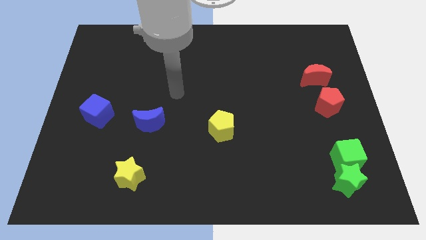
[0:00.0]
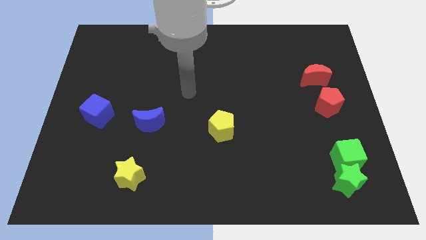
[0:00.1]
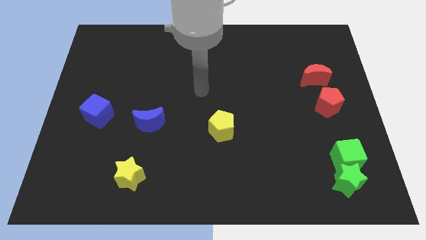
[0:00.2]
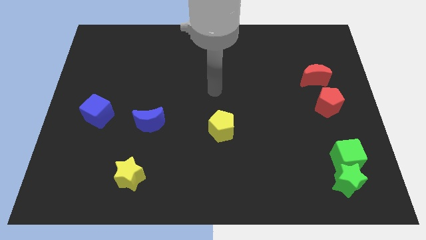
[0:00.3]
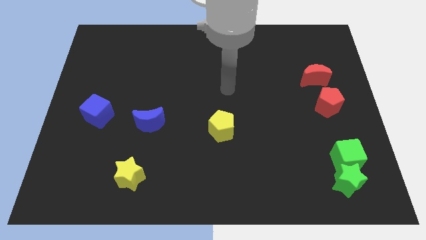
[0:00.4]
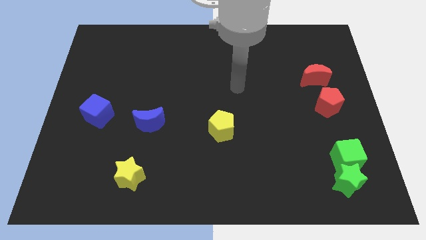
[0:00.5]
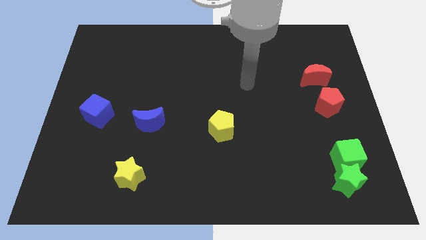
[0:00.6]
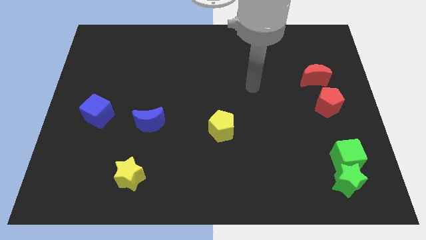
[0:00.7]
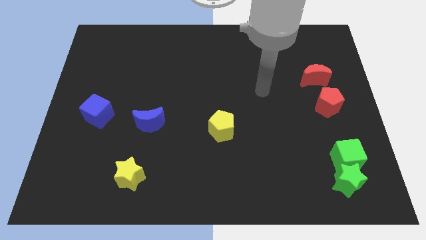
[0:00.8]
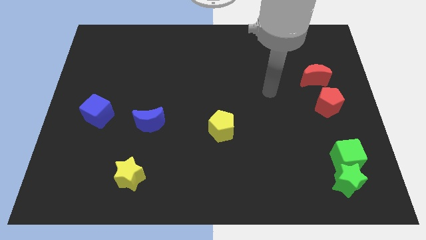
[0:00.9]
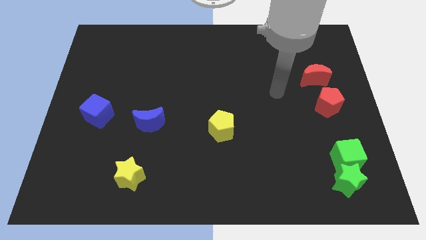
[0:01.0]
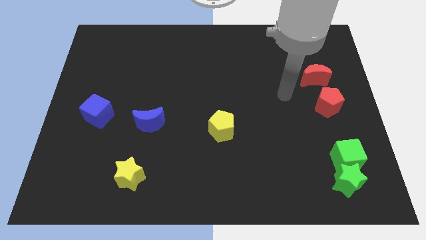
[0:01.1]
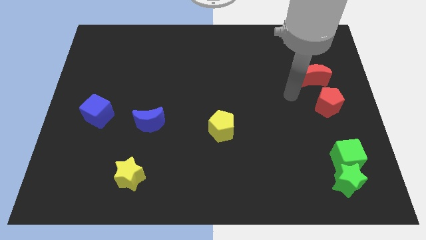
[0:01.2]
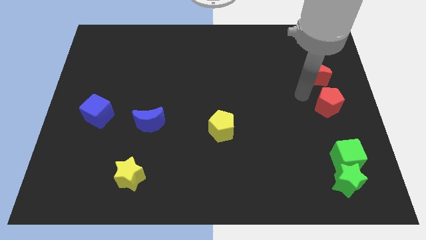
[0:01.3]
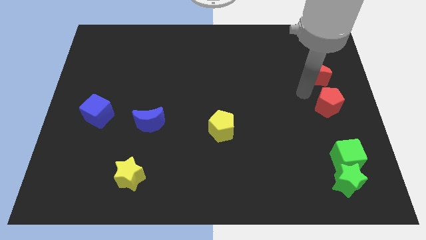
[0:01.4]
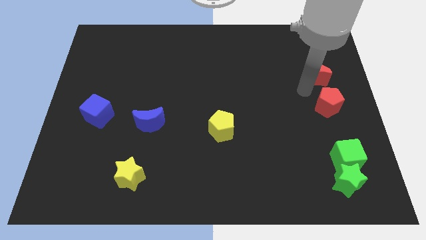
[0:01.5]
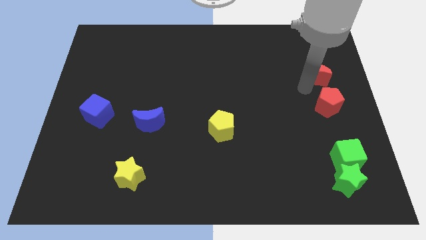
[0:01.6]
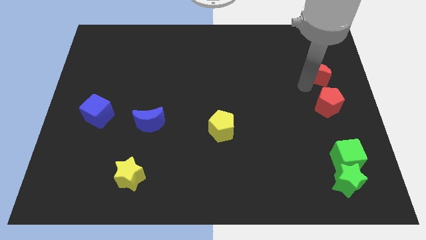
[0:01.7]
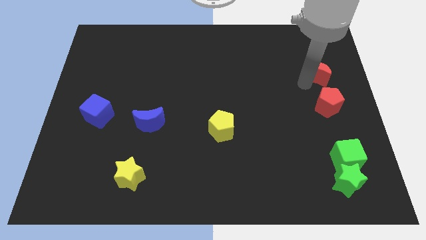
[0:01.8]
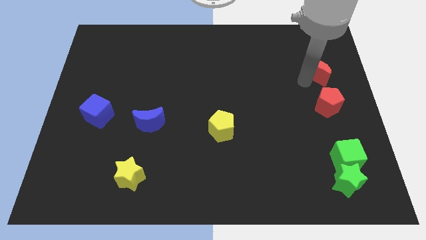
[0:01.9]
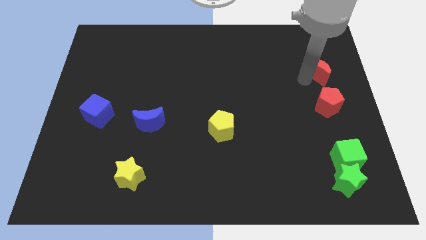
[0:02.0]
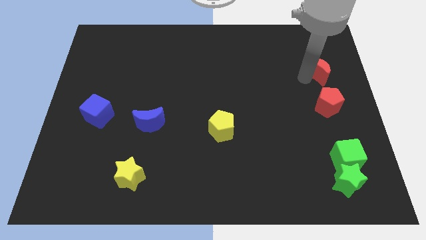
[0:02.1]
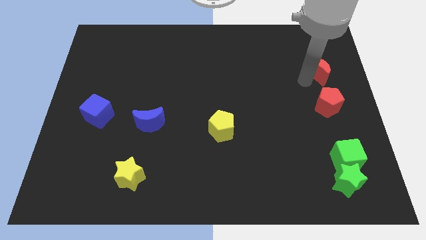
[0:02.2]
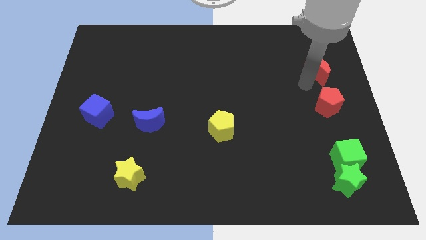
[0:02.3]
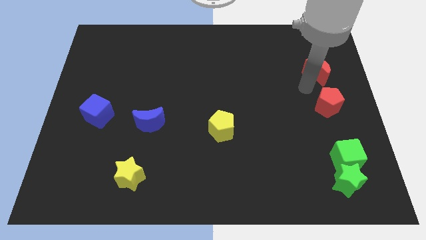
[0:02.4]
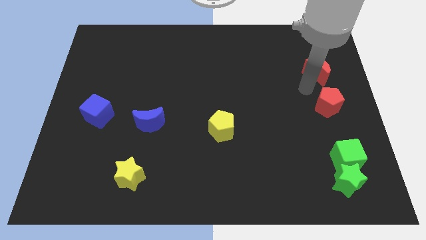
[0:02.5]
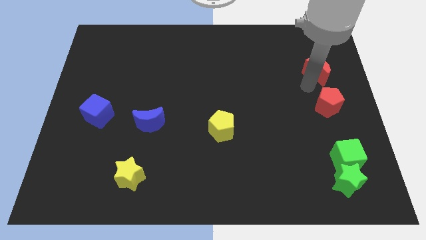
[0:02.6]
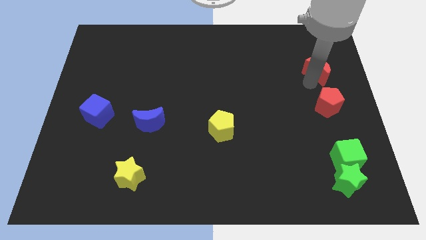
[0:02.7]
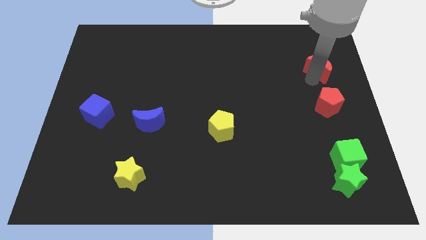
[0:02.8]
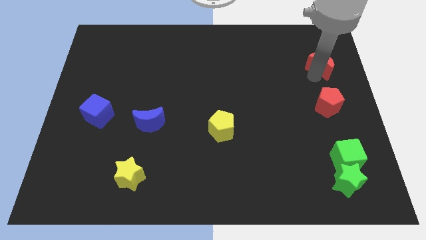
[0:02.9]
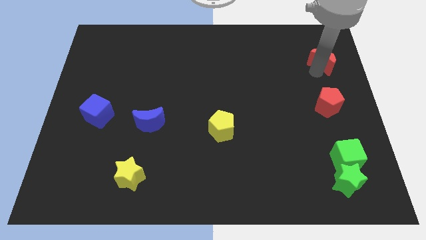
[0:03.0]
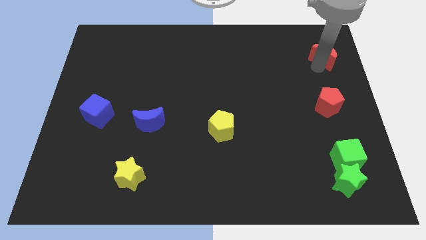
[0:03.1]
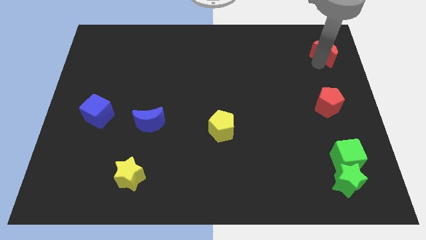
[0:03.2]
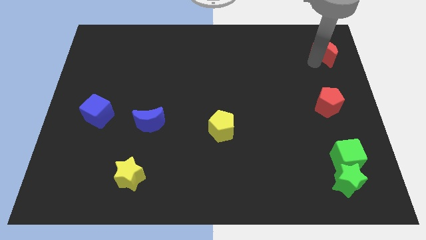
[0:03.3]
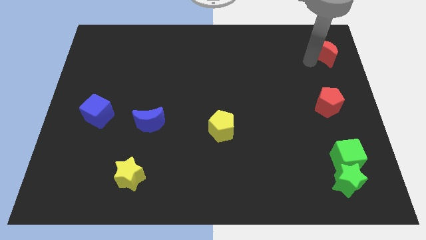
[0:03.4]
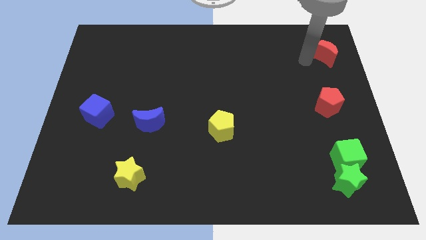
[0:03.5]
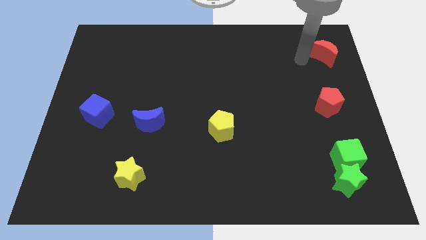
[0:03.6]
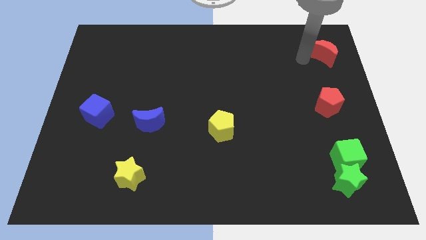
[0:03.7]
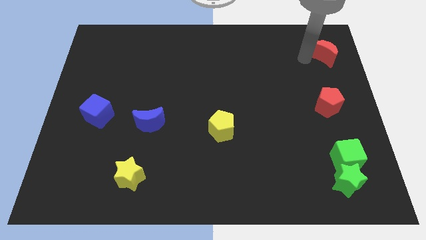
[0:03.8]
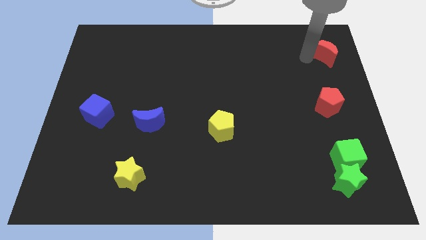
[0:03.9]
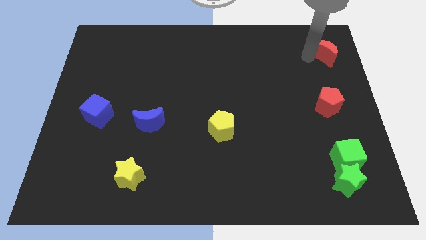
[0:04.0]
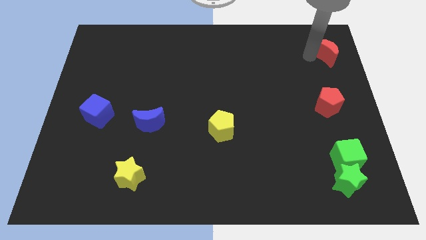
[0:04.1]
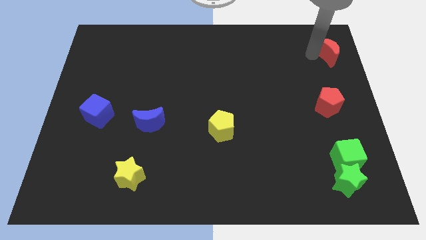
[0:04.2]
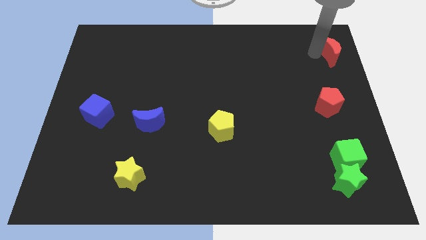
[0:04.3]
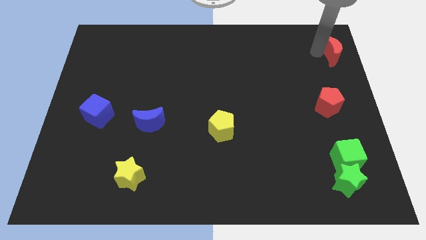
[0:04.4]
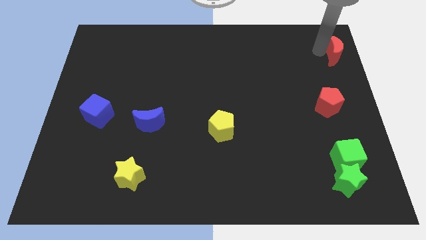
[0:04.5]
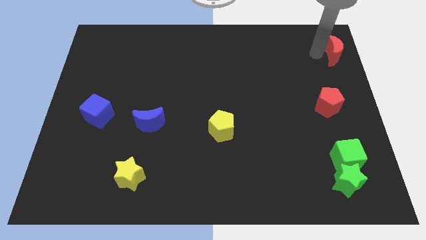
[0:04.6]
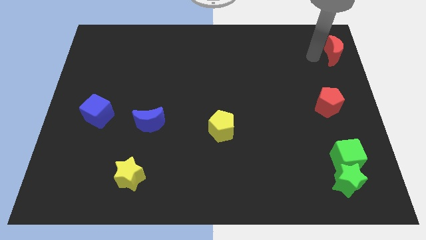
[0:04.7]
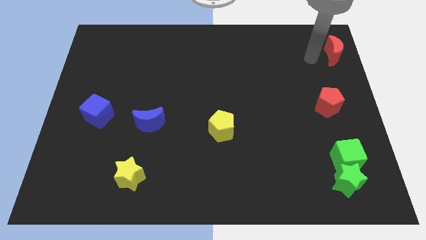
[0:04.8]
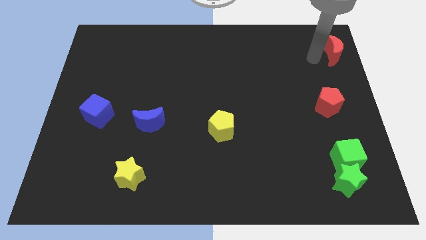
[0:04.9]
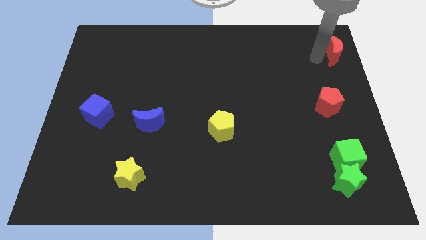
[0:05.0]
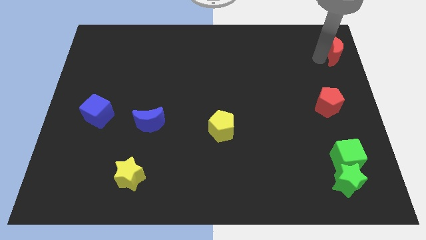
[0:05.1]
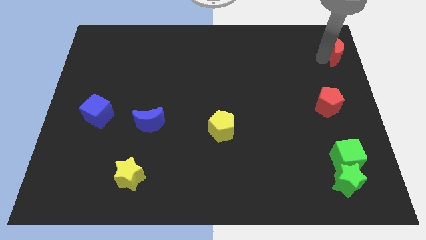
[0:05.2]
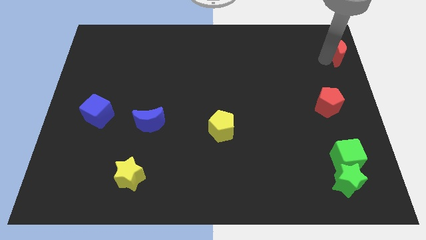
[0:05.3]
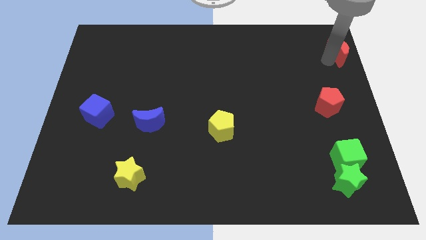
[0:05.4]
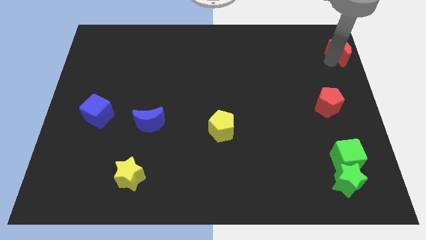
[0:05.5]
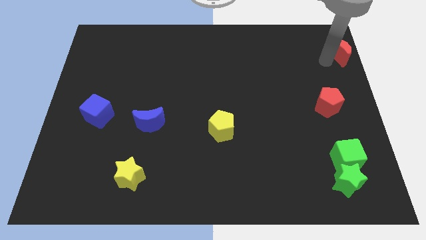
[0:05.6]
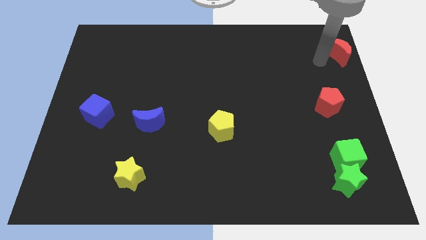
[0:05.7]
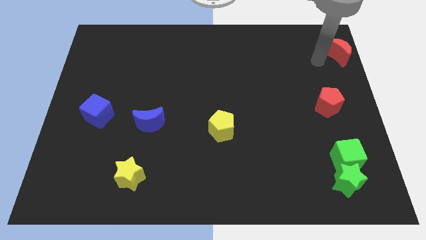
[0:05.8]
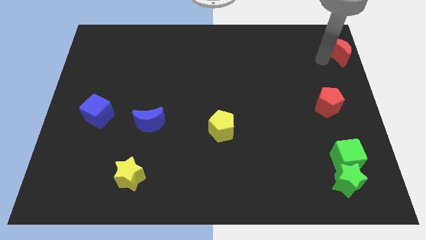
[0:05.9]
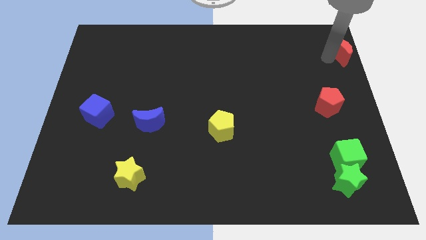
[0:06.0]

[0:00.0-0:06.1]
put the red moon to the upper right corner

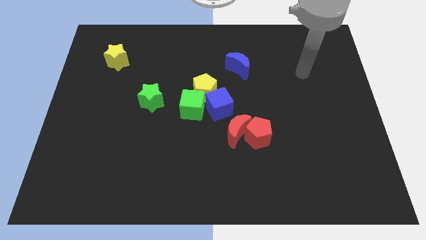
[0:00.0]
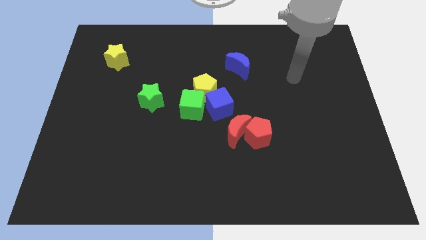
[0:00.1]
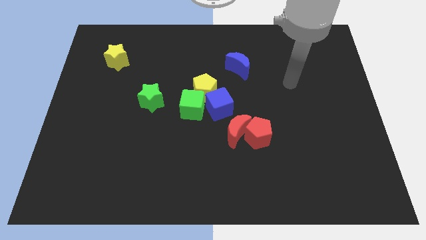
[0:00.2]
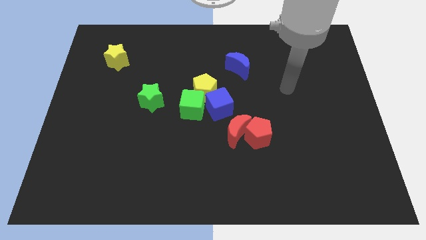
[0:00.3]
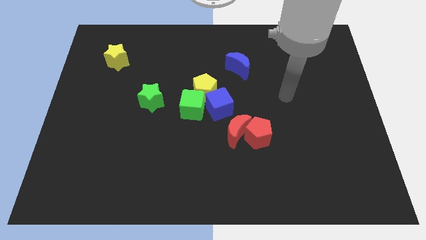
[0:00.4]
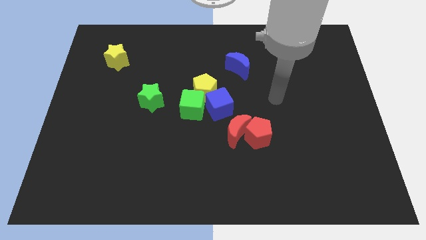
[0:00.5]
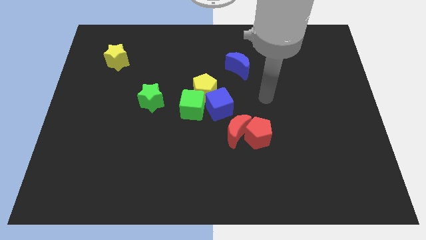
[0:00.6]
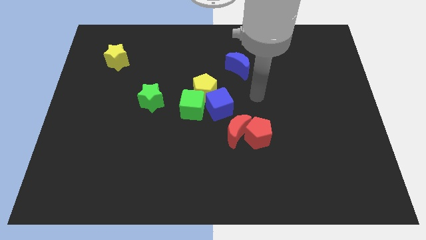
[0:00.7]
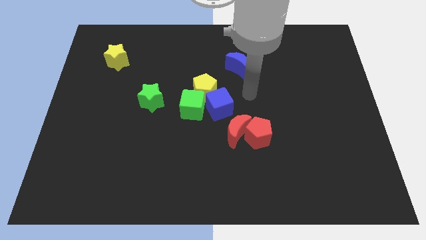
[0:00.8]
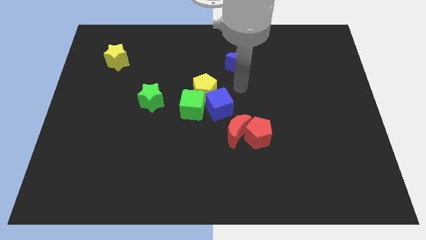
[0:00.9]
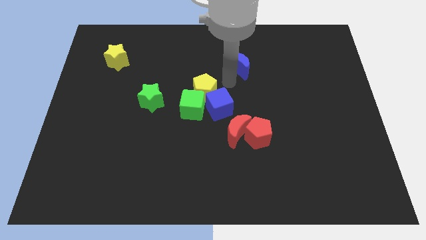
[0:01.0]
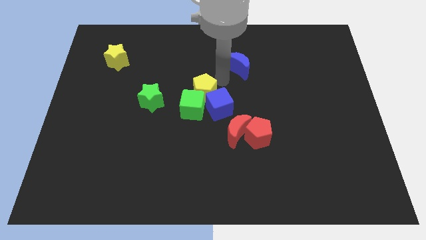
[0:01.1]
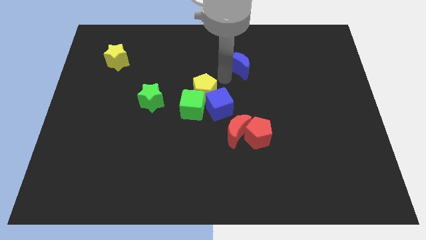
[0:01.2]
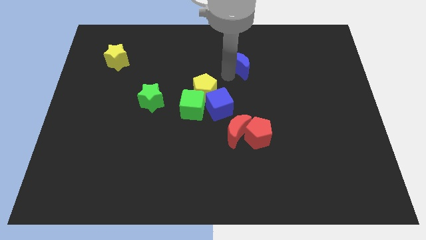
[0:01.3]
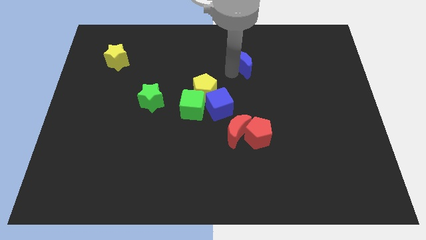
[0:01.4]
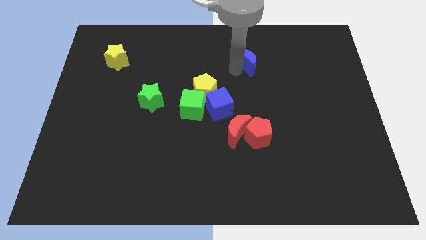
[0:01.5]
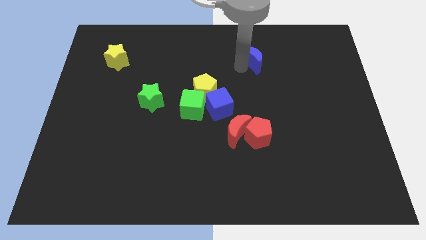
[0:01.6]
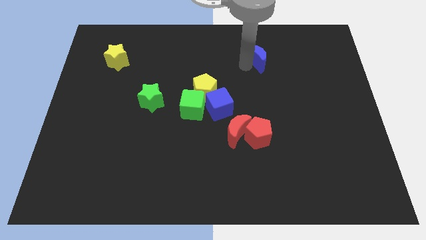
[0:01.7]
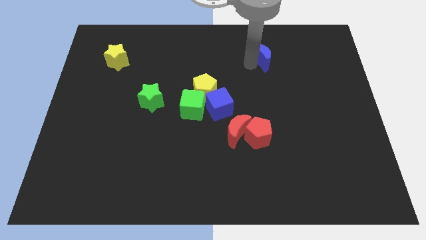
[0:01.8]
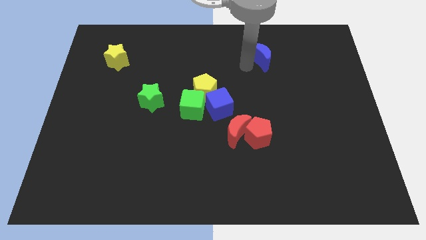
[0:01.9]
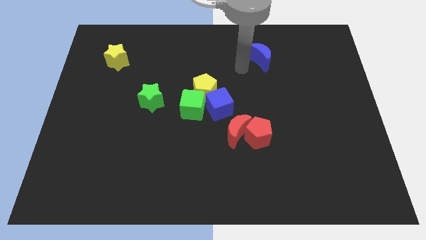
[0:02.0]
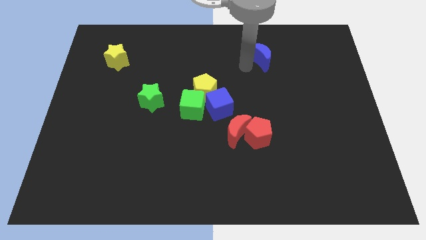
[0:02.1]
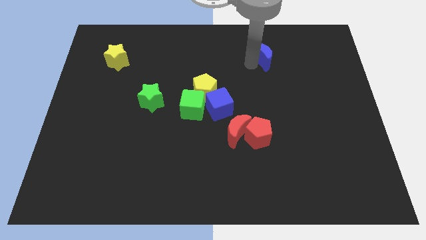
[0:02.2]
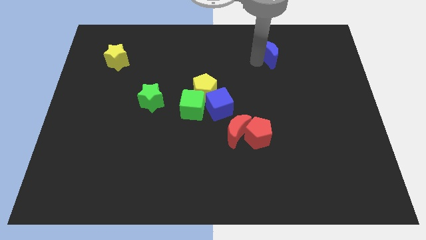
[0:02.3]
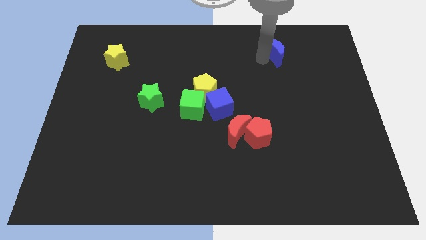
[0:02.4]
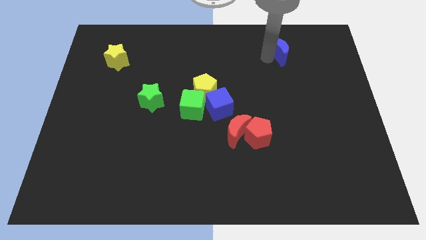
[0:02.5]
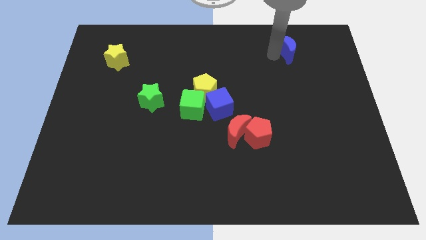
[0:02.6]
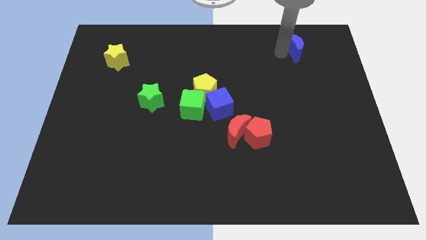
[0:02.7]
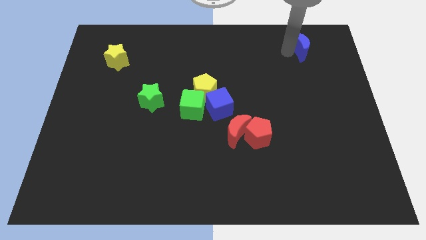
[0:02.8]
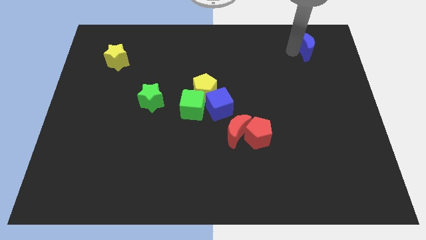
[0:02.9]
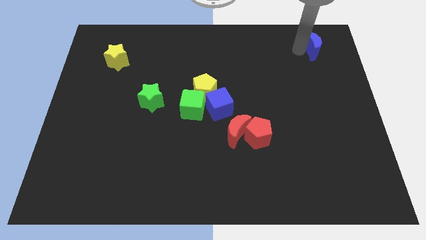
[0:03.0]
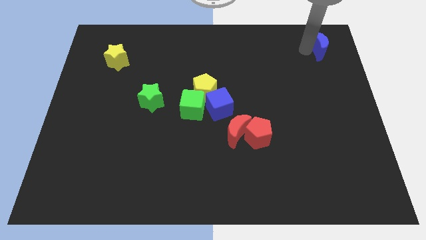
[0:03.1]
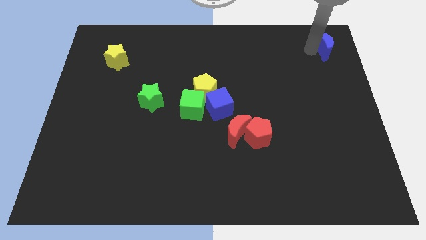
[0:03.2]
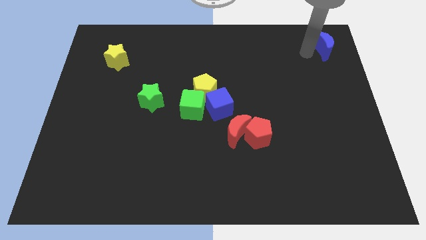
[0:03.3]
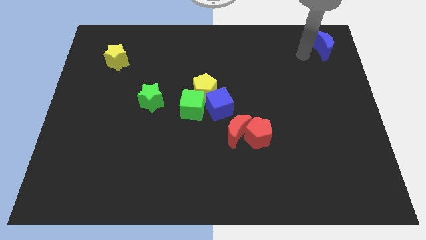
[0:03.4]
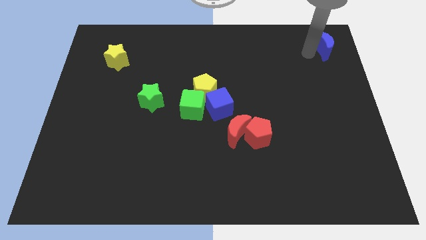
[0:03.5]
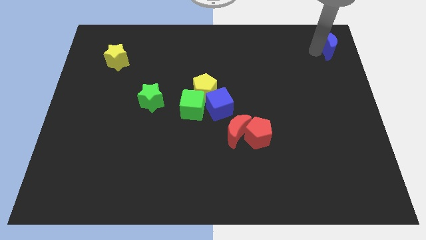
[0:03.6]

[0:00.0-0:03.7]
push the blue moon to the top right
